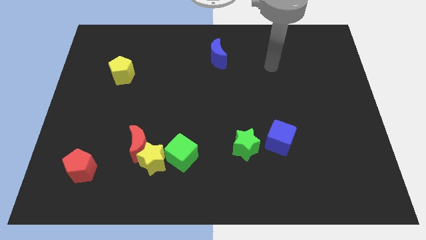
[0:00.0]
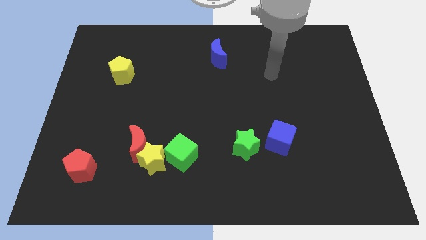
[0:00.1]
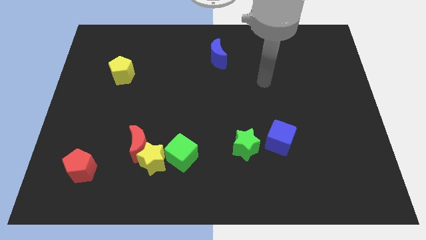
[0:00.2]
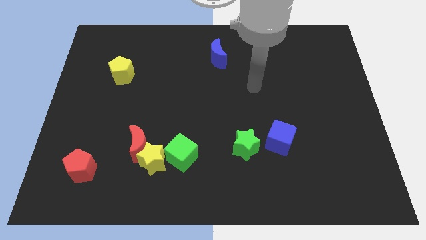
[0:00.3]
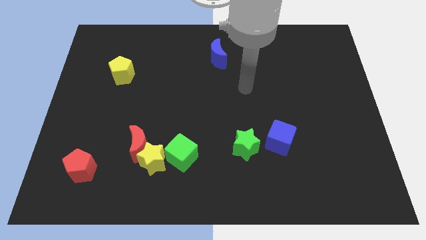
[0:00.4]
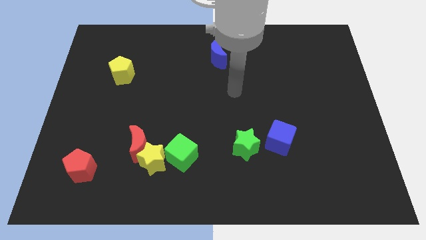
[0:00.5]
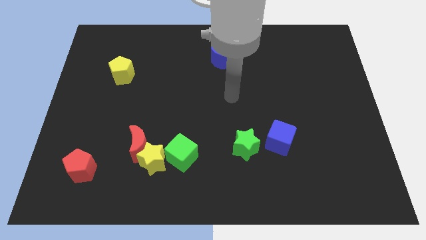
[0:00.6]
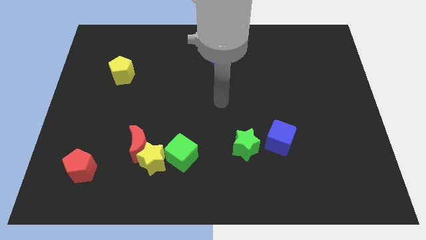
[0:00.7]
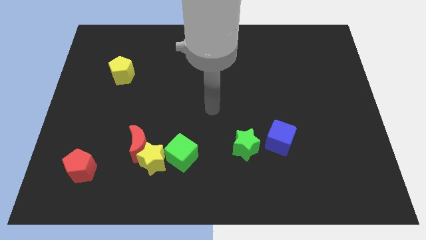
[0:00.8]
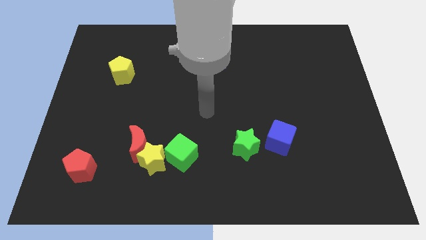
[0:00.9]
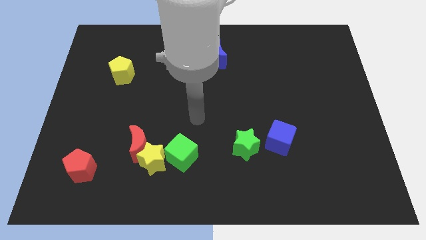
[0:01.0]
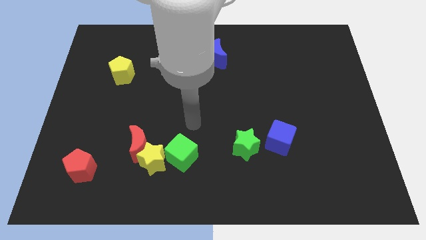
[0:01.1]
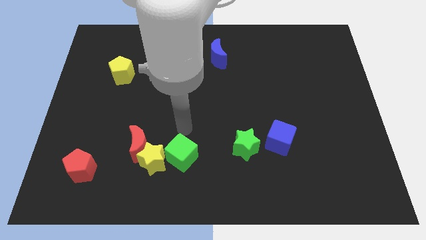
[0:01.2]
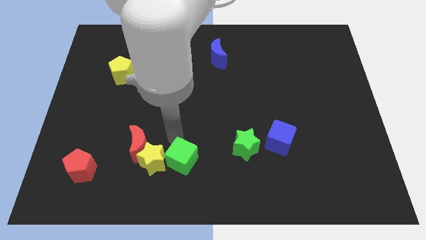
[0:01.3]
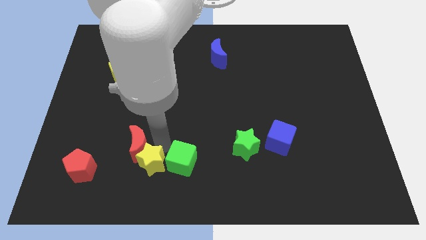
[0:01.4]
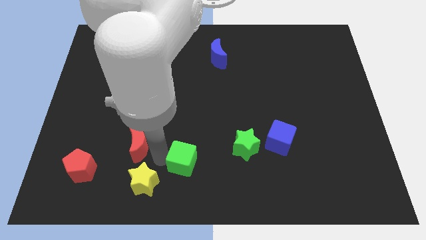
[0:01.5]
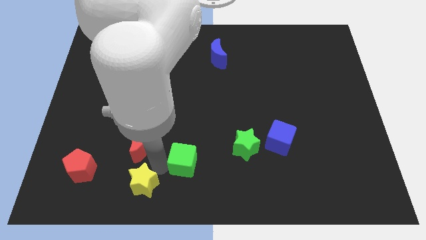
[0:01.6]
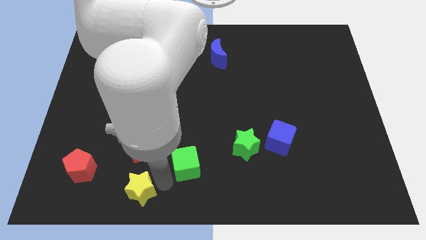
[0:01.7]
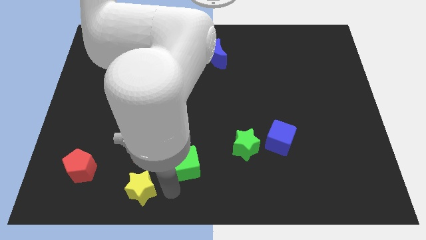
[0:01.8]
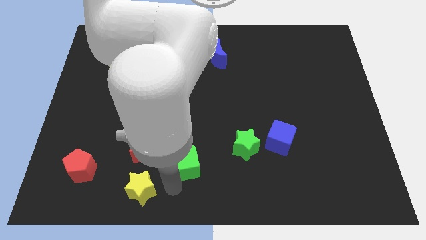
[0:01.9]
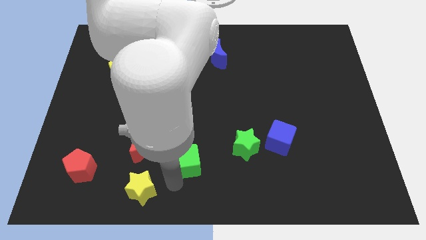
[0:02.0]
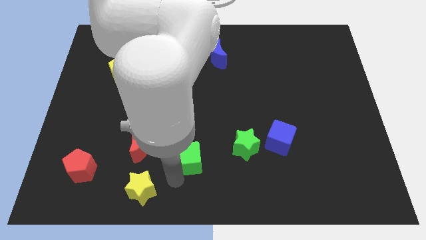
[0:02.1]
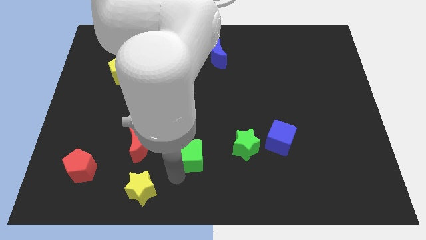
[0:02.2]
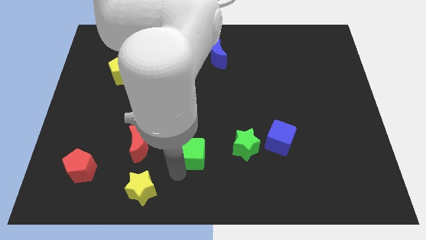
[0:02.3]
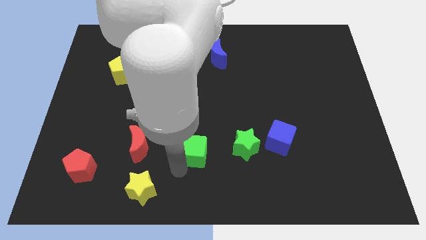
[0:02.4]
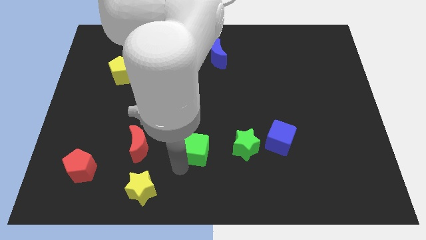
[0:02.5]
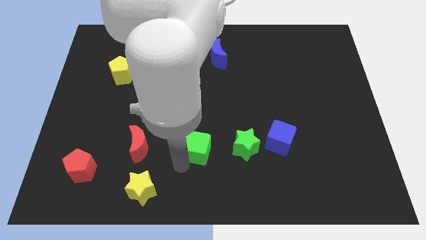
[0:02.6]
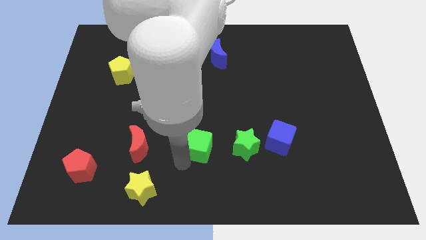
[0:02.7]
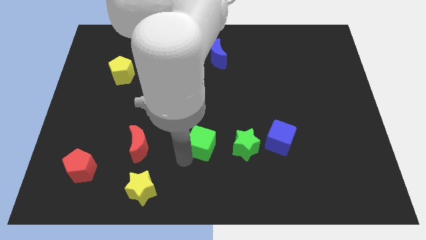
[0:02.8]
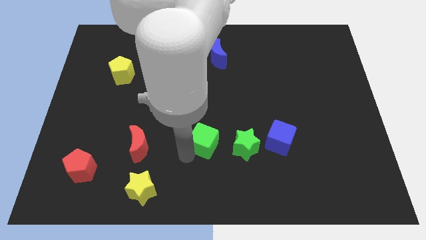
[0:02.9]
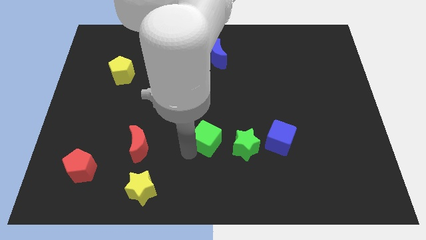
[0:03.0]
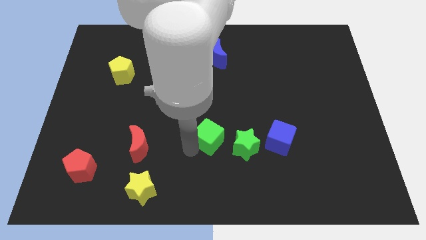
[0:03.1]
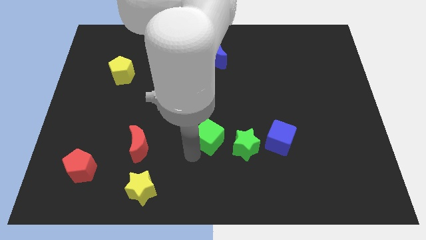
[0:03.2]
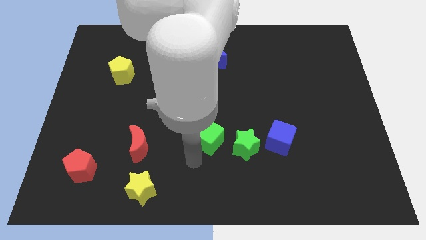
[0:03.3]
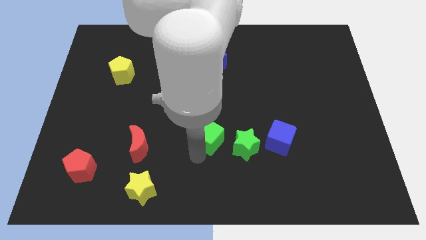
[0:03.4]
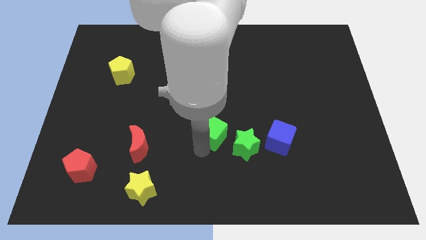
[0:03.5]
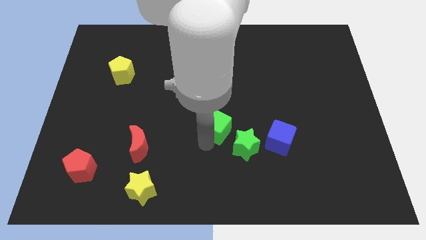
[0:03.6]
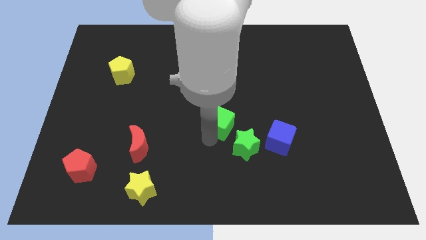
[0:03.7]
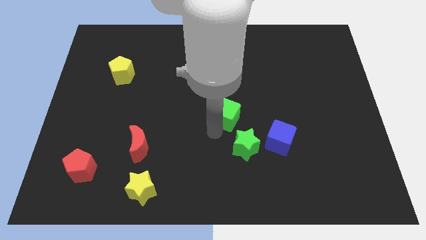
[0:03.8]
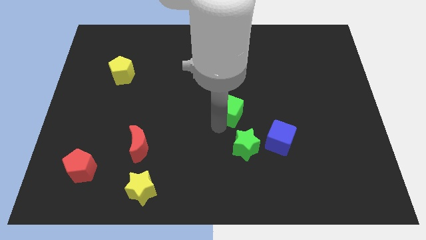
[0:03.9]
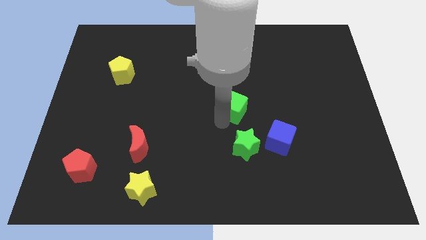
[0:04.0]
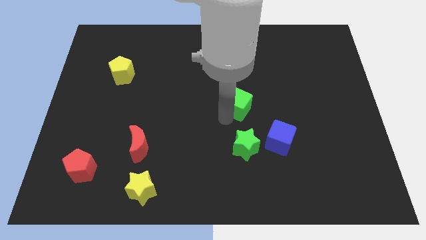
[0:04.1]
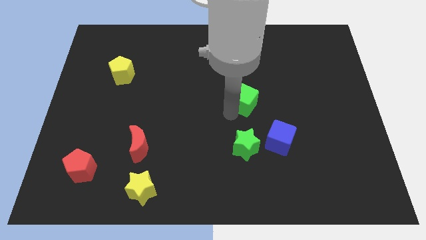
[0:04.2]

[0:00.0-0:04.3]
push the green cube upwards and then right

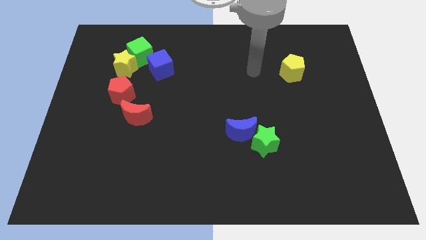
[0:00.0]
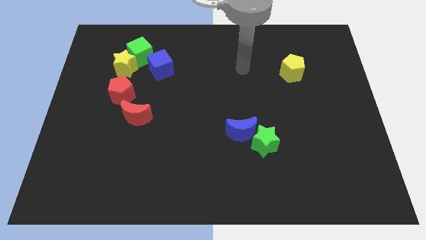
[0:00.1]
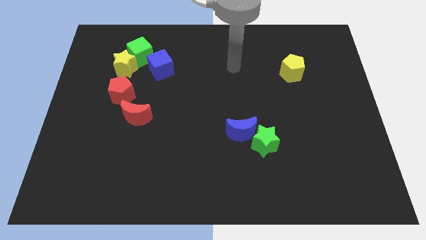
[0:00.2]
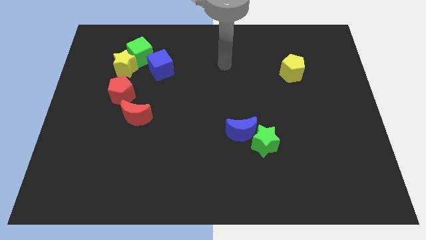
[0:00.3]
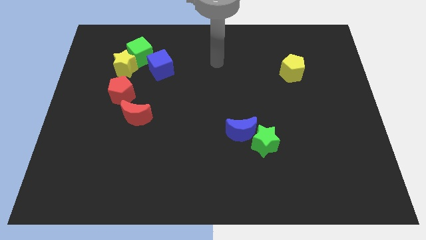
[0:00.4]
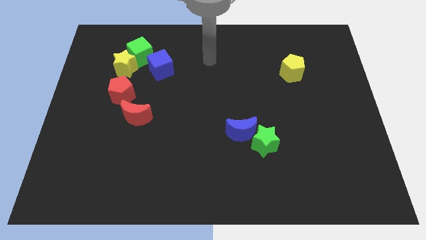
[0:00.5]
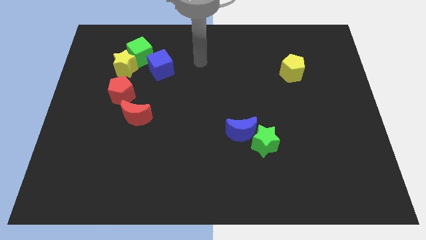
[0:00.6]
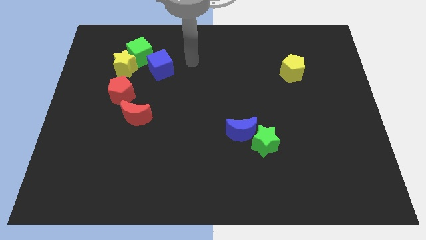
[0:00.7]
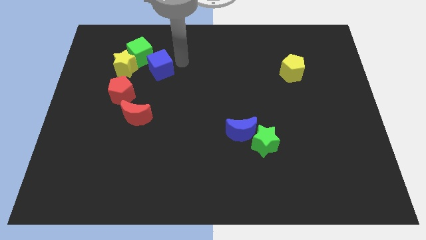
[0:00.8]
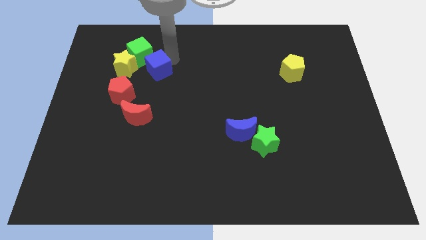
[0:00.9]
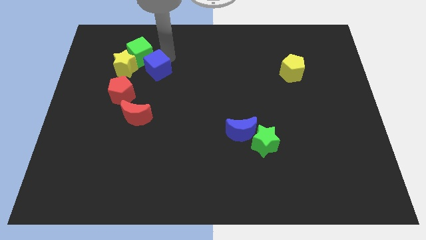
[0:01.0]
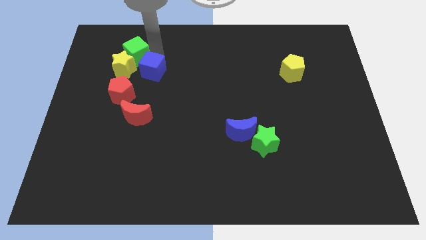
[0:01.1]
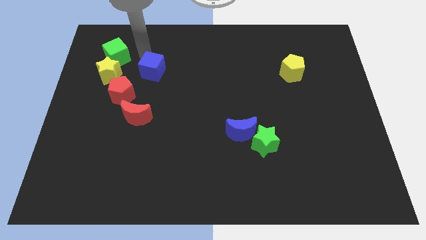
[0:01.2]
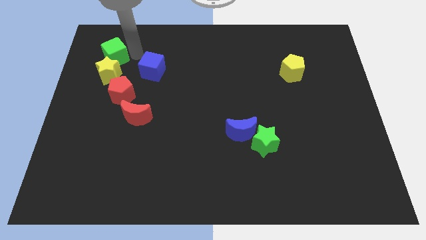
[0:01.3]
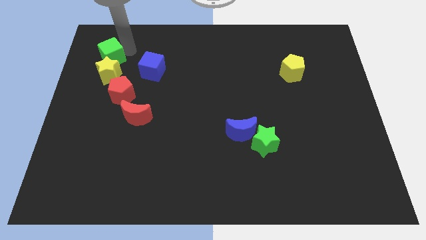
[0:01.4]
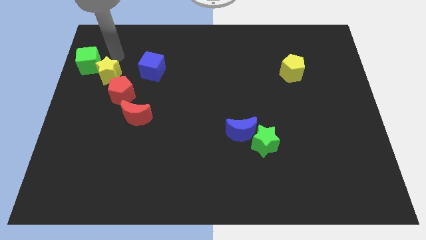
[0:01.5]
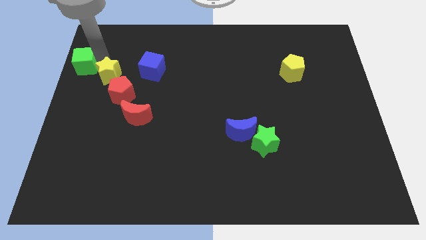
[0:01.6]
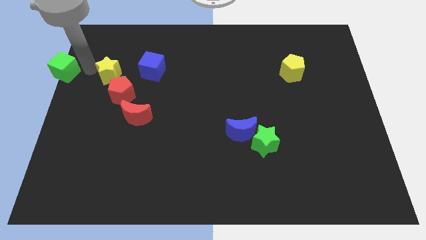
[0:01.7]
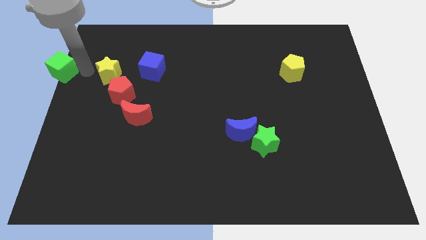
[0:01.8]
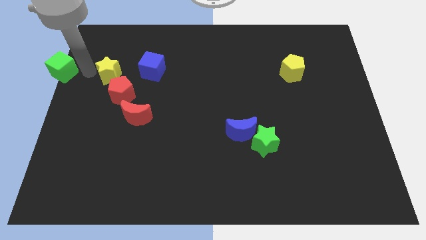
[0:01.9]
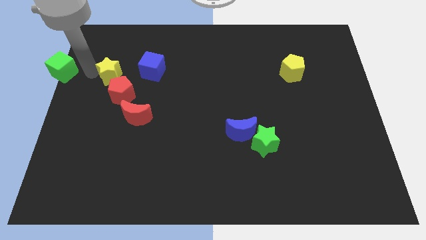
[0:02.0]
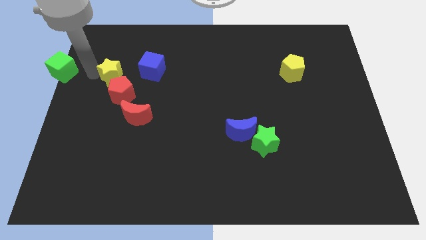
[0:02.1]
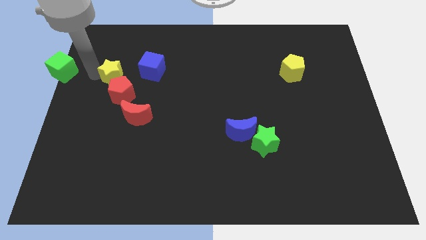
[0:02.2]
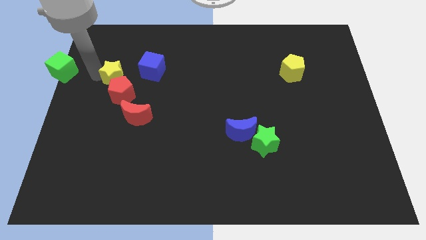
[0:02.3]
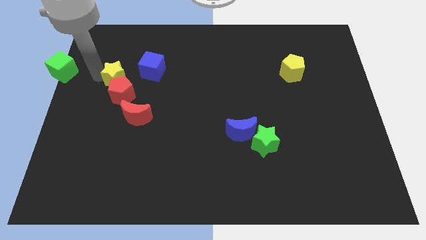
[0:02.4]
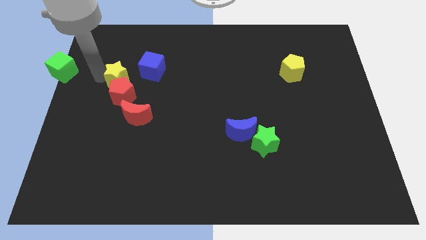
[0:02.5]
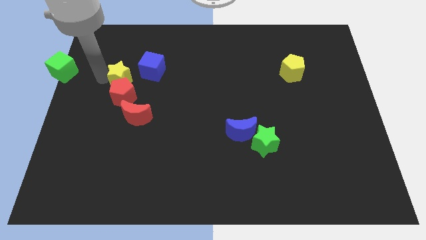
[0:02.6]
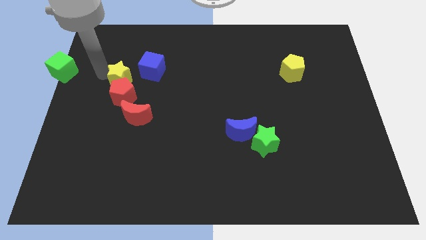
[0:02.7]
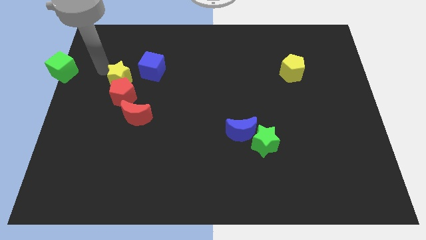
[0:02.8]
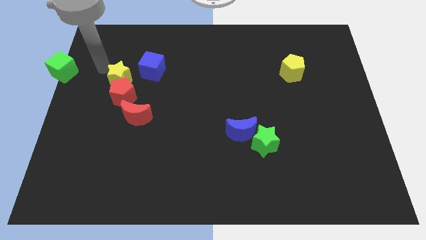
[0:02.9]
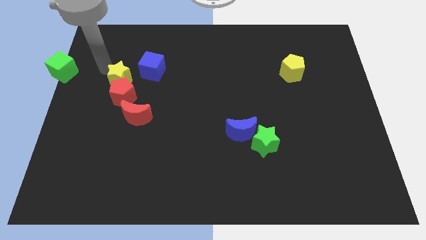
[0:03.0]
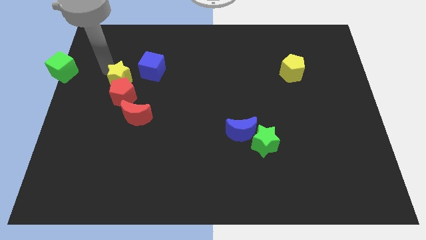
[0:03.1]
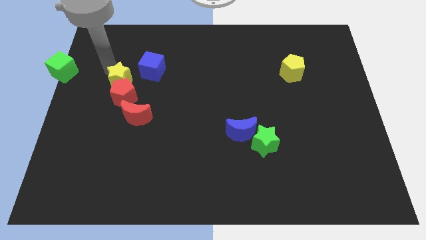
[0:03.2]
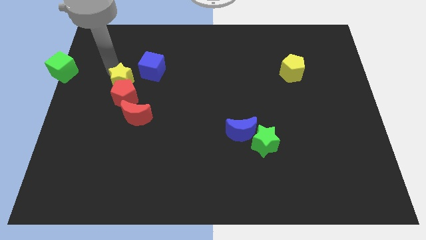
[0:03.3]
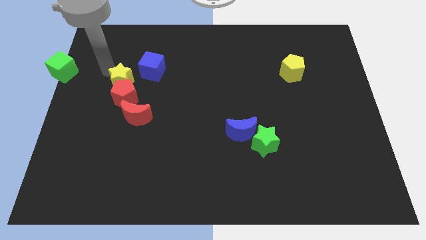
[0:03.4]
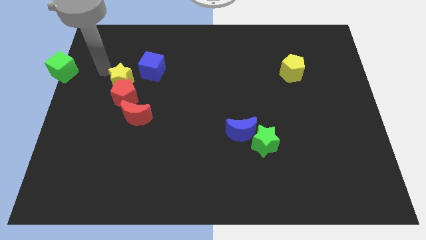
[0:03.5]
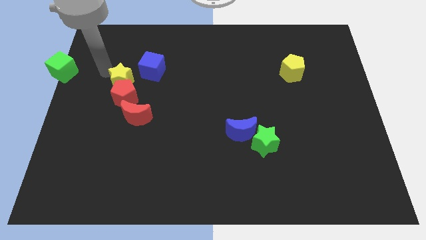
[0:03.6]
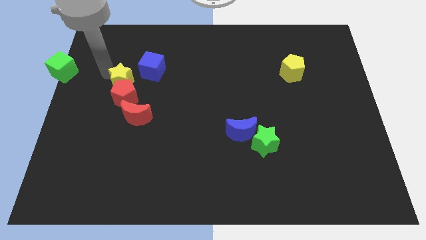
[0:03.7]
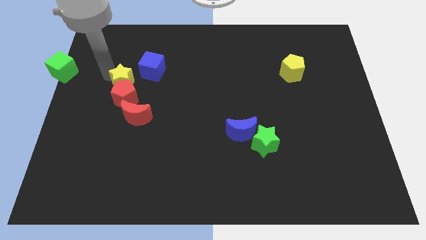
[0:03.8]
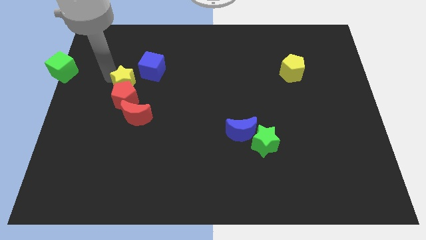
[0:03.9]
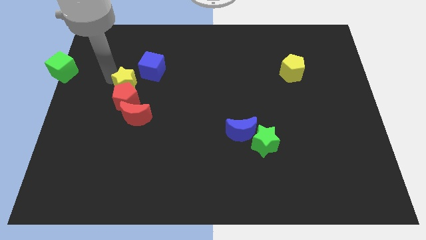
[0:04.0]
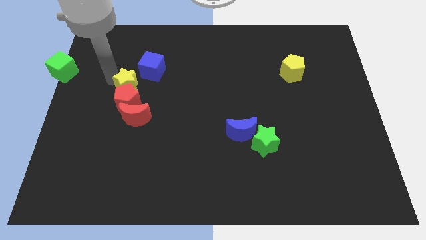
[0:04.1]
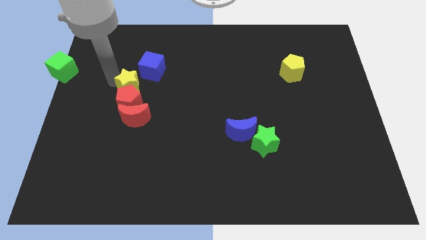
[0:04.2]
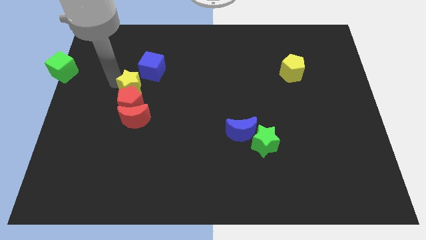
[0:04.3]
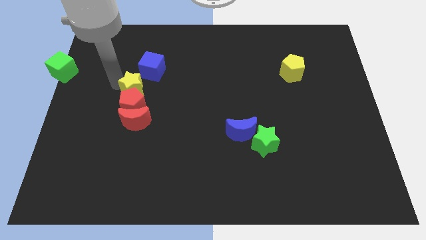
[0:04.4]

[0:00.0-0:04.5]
slightly push the yellow star diagonally downwards and to the right
